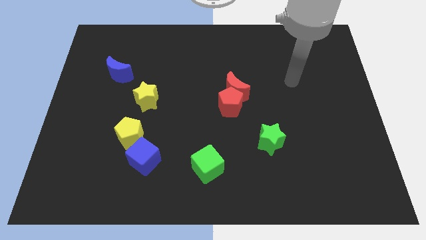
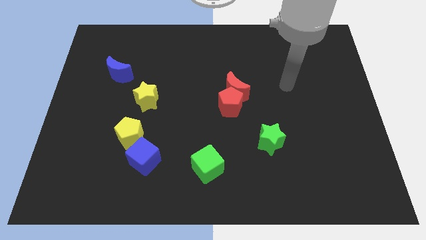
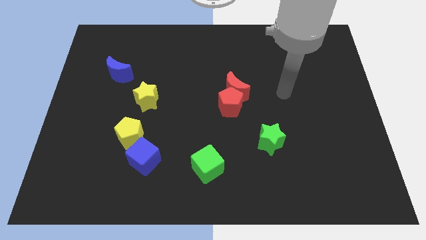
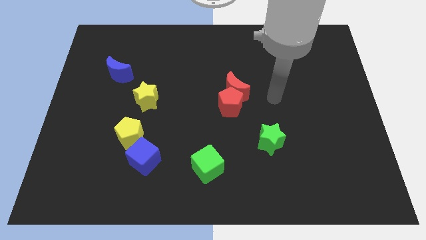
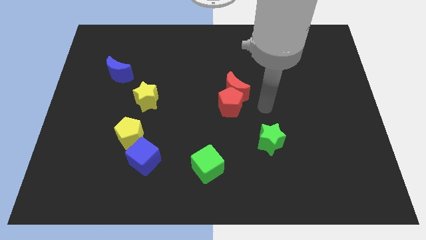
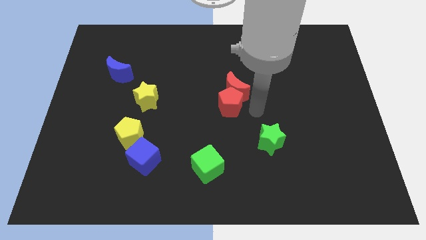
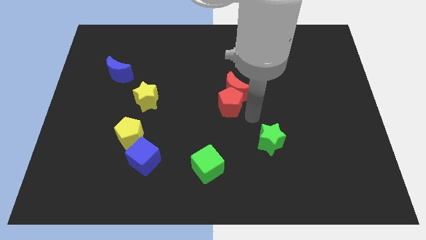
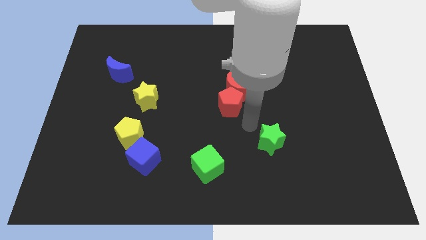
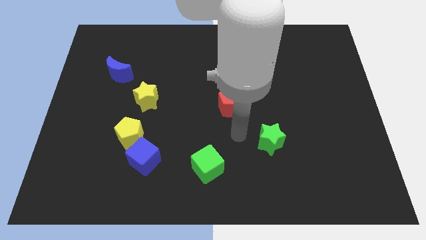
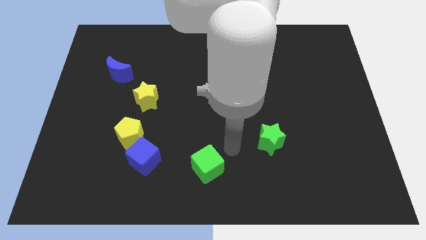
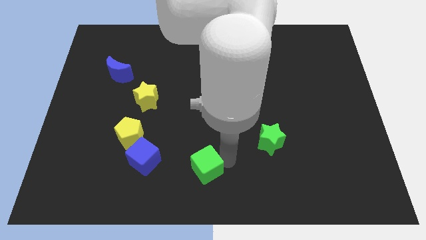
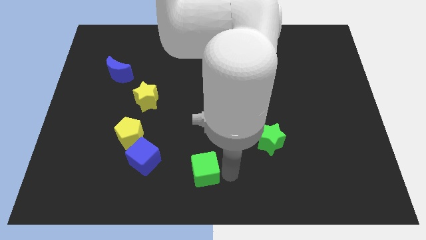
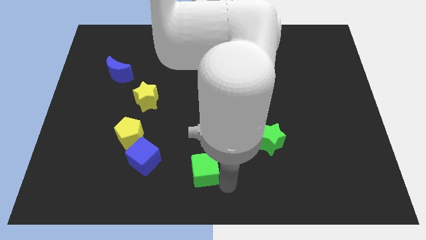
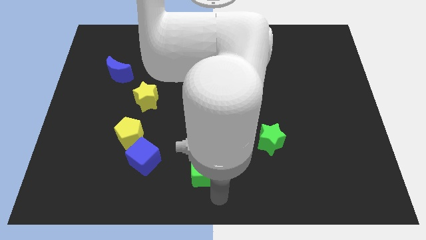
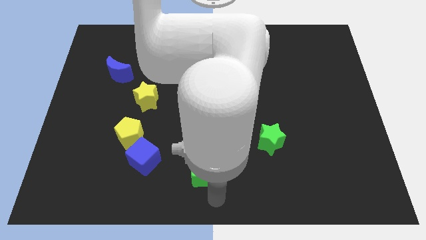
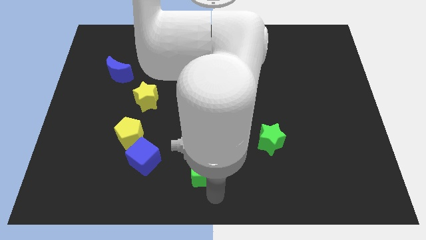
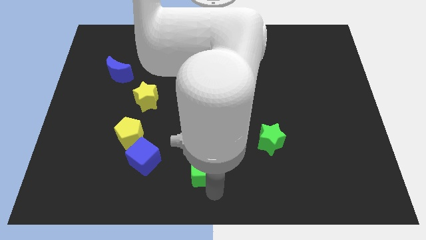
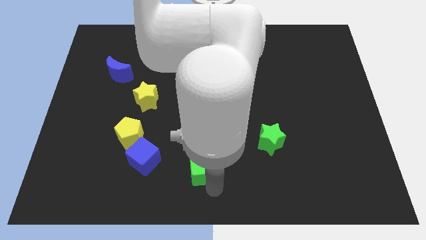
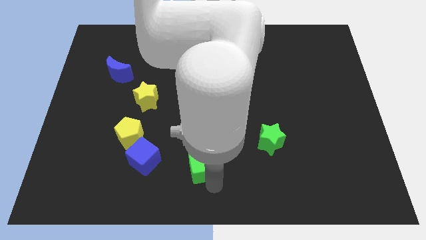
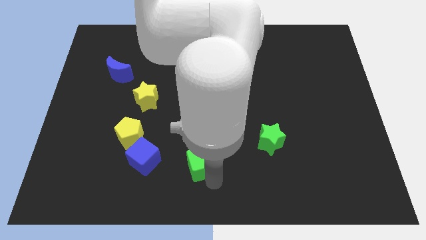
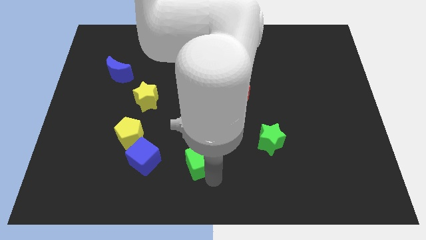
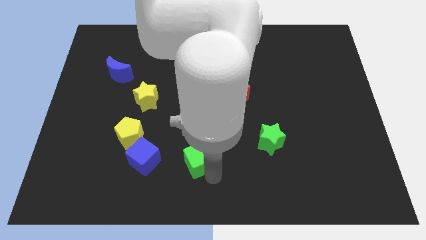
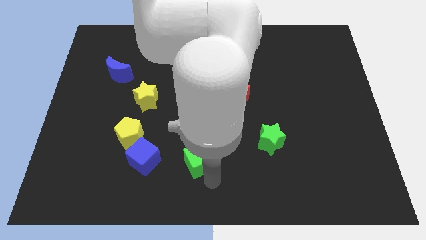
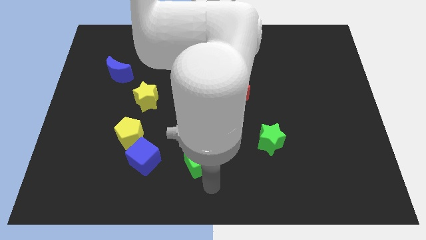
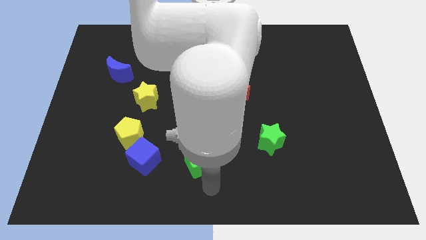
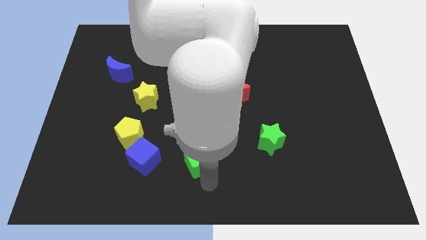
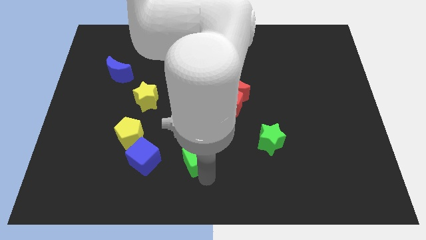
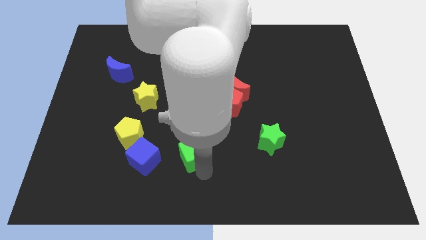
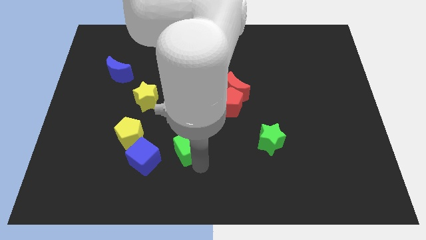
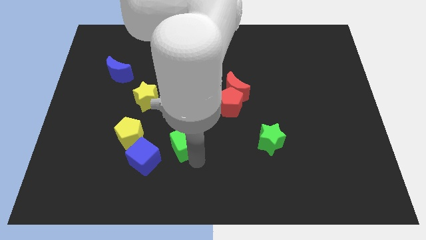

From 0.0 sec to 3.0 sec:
push the green cube a bit diagonally up and to the left

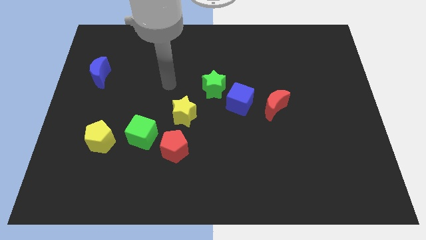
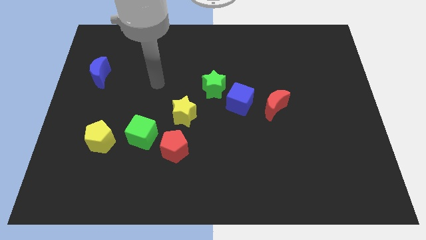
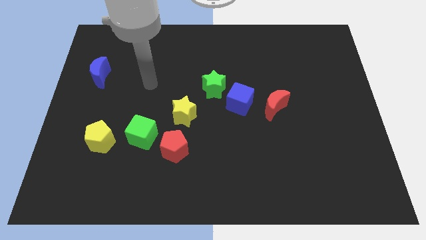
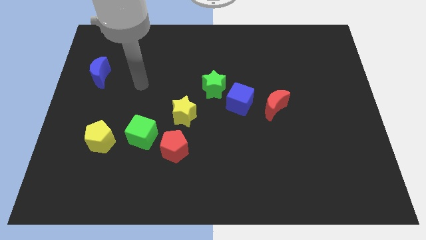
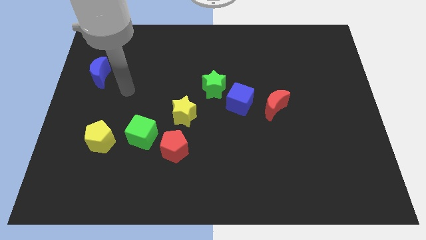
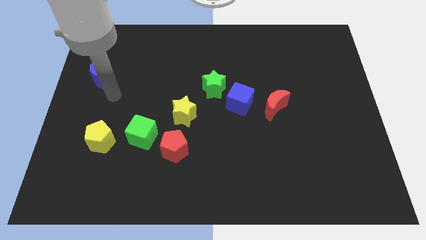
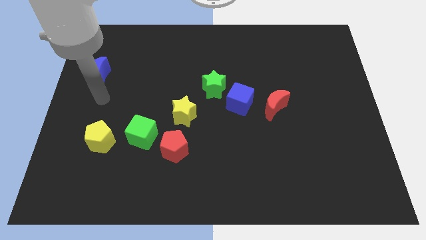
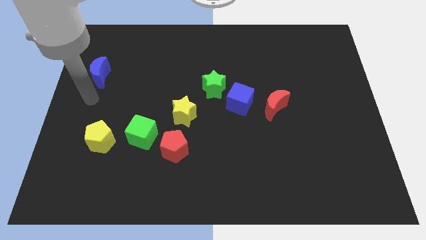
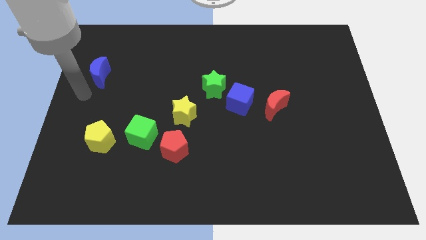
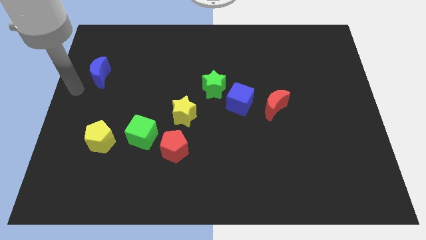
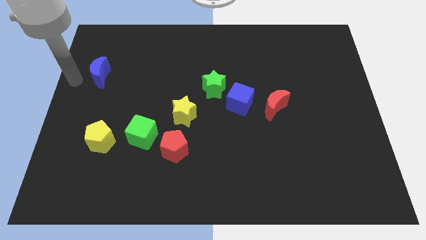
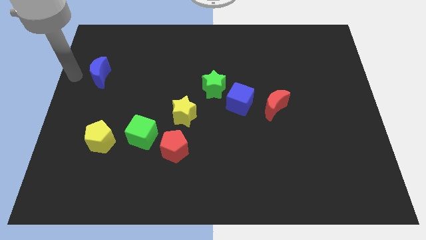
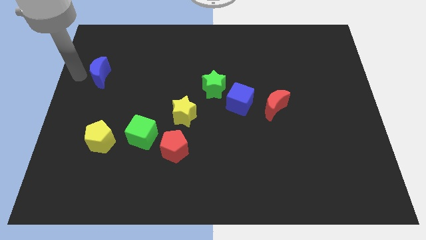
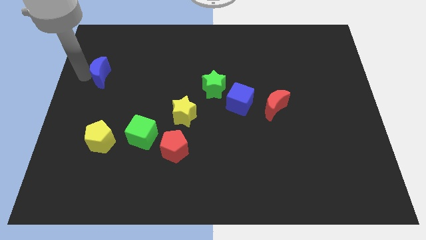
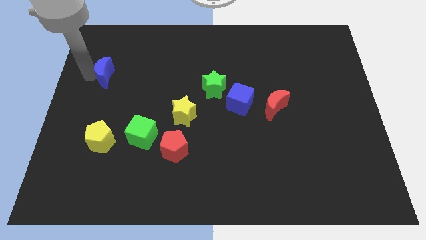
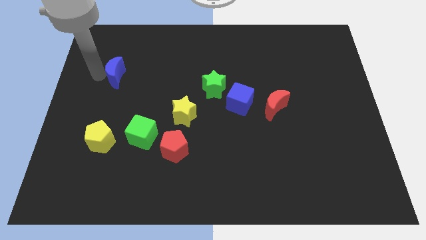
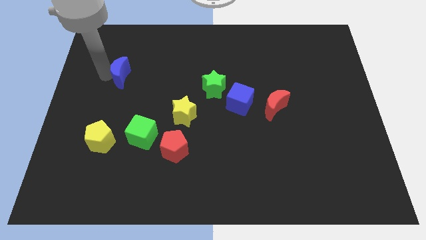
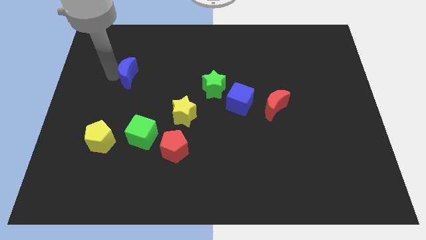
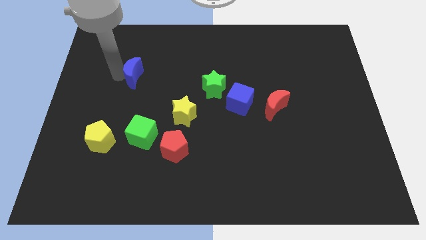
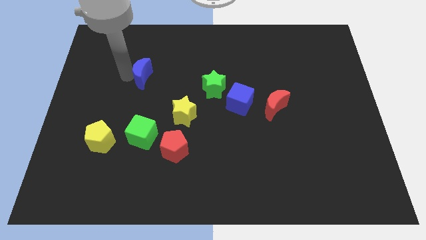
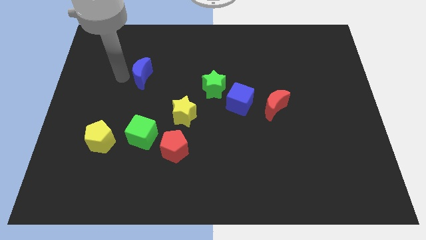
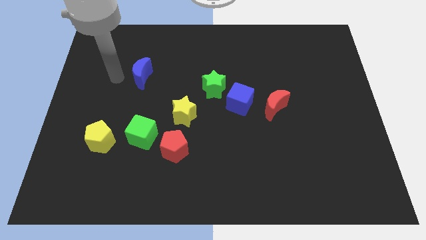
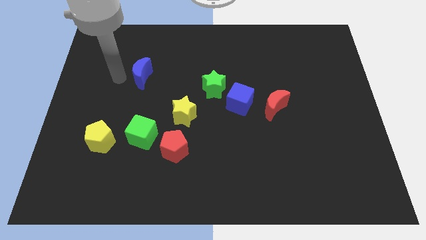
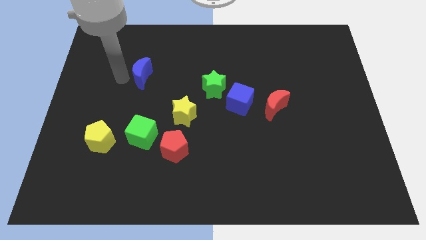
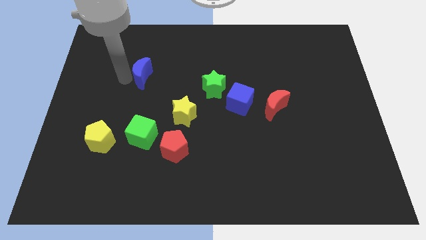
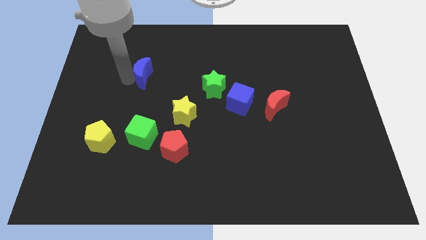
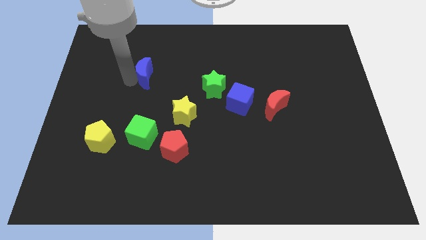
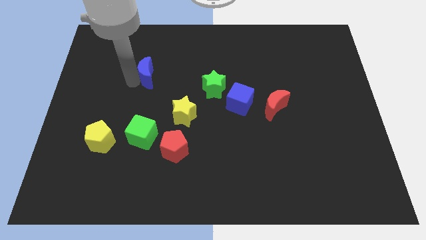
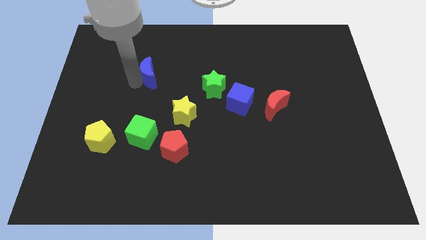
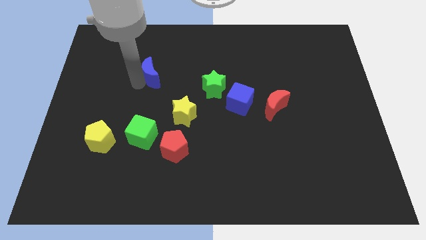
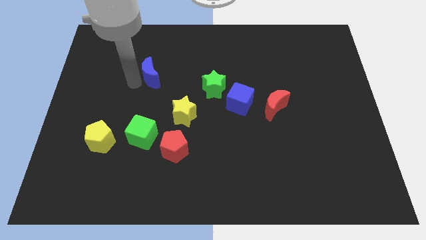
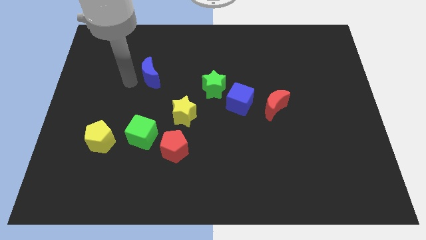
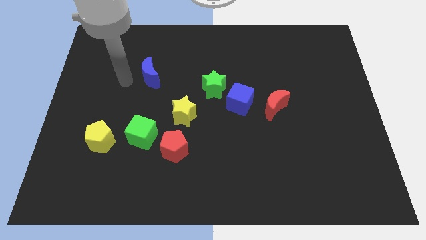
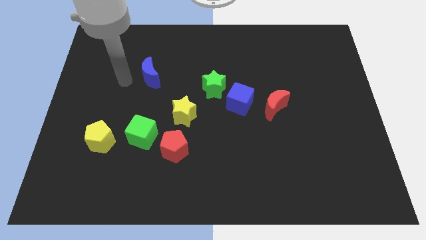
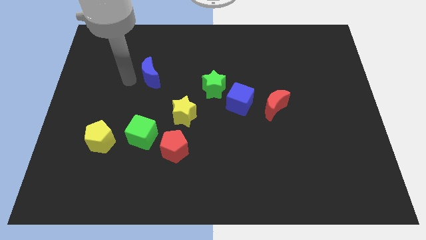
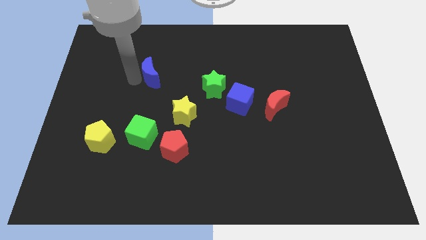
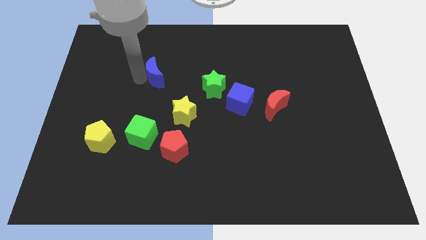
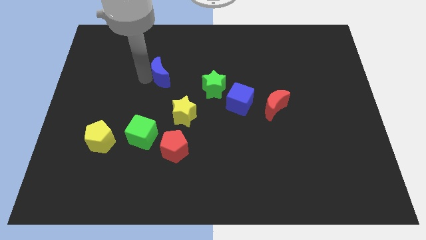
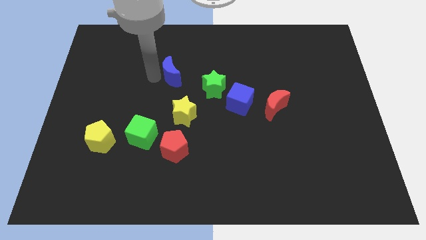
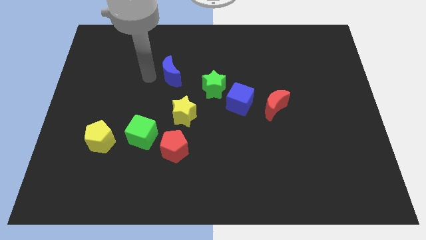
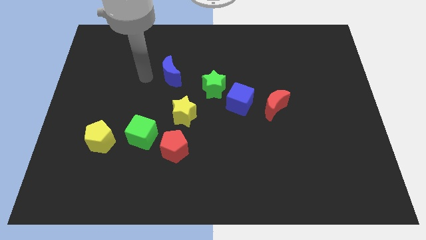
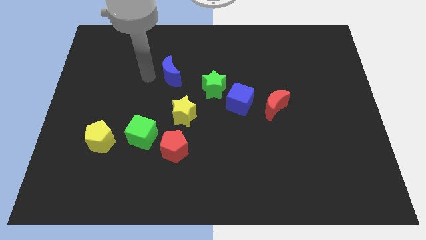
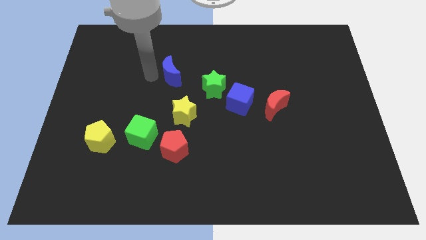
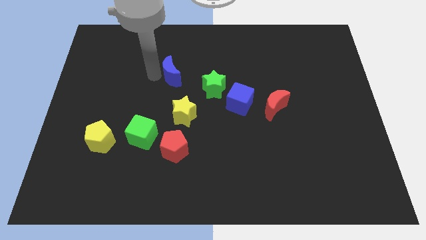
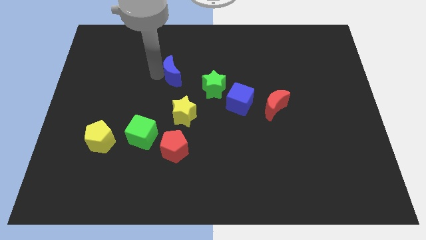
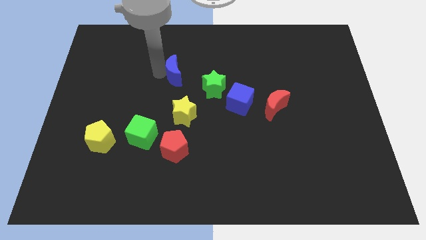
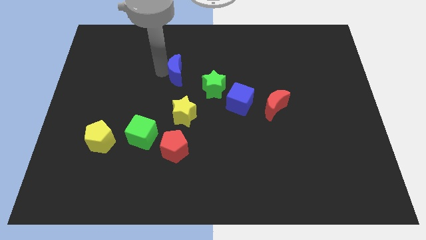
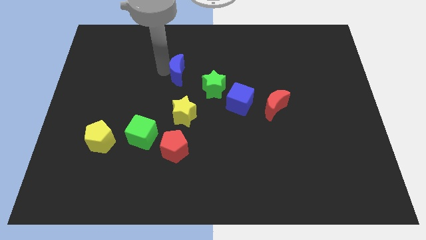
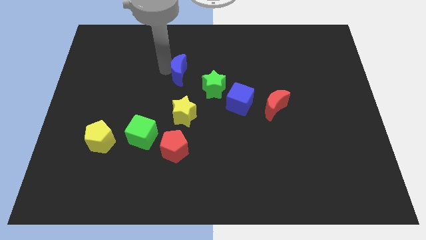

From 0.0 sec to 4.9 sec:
push the blue moon right

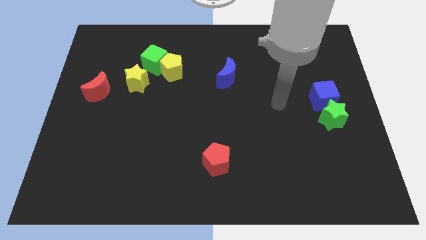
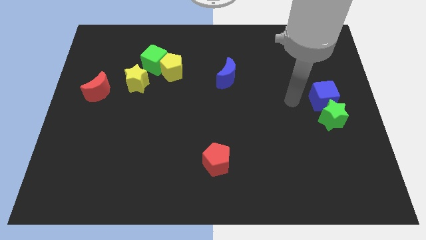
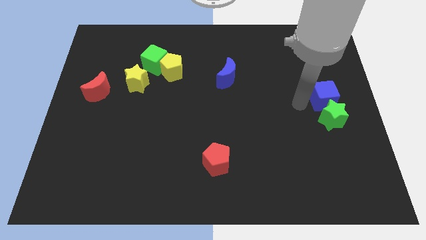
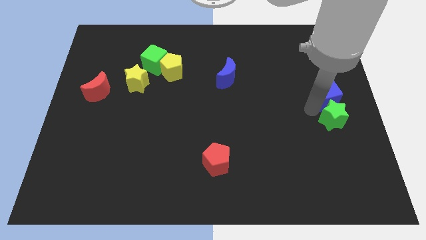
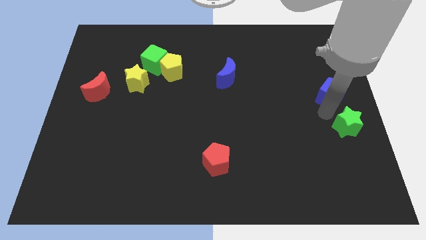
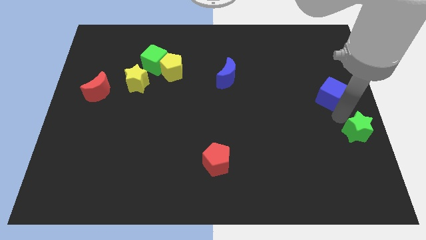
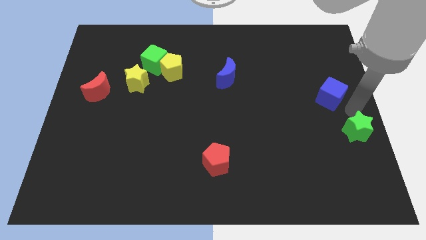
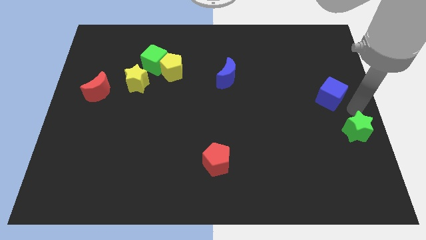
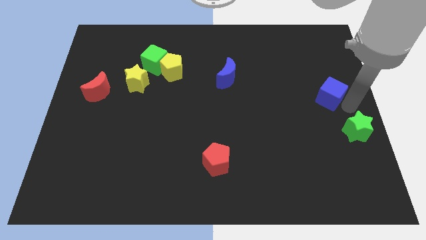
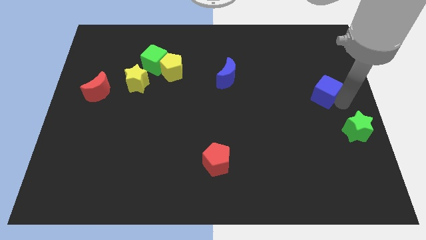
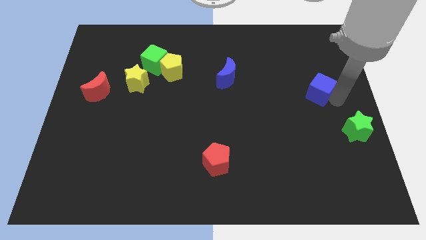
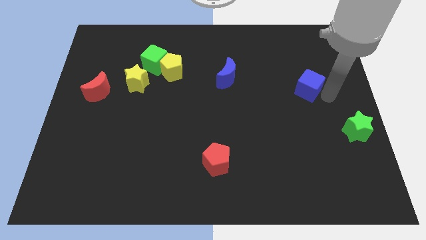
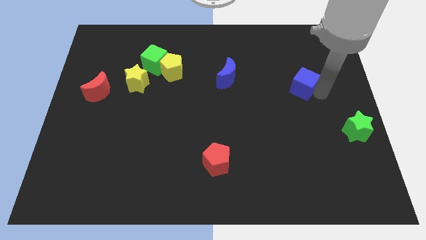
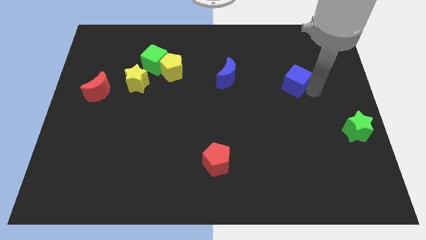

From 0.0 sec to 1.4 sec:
move the blue cube upwards and then to the left slightly
